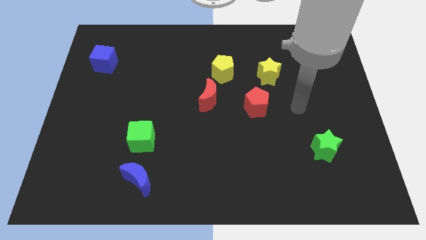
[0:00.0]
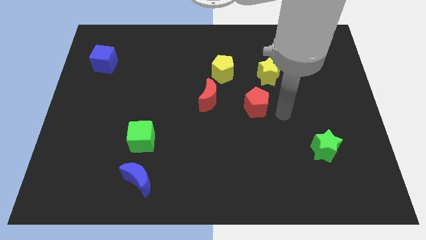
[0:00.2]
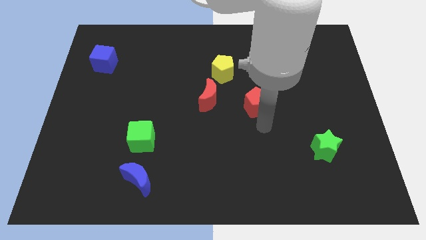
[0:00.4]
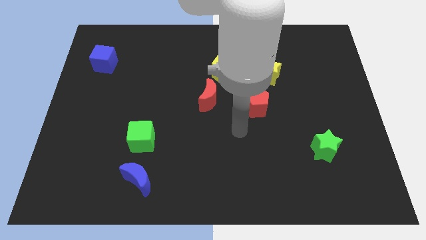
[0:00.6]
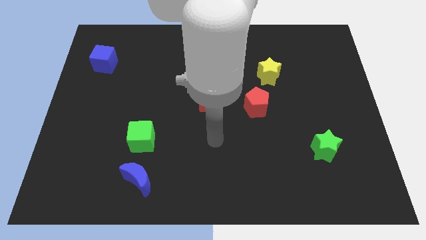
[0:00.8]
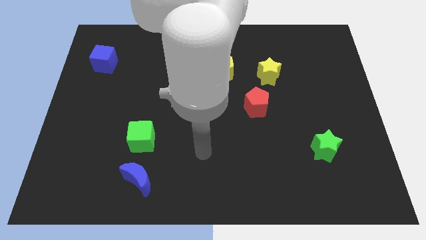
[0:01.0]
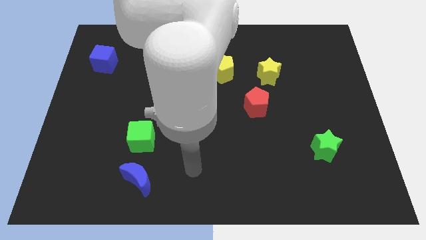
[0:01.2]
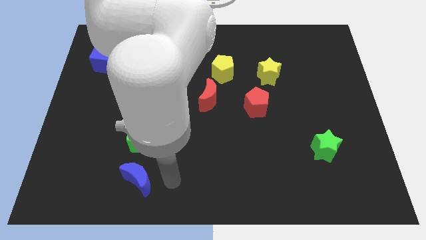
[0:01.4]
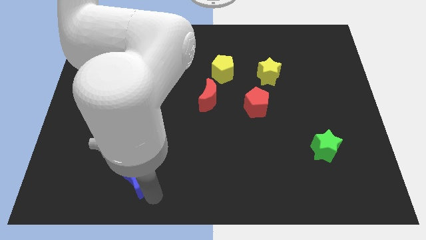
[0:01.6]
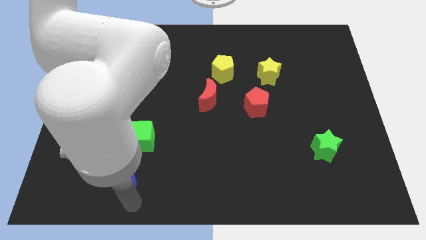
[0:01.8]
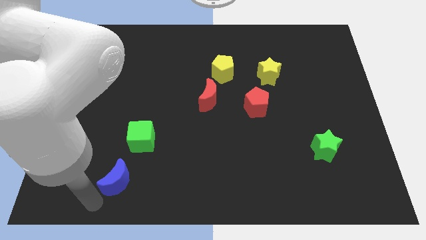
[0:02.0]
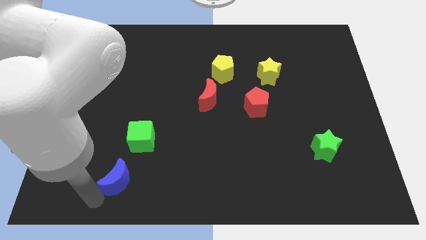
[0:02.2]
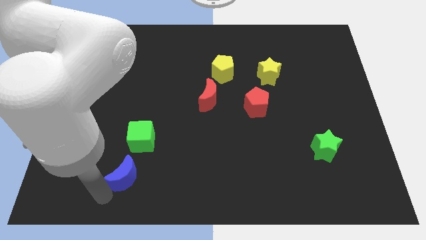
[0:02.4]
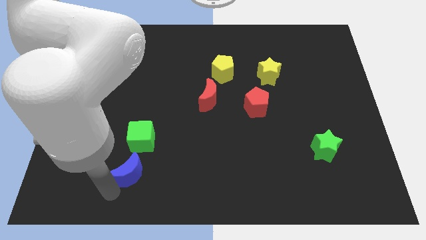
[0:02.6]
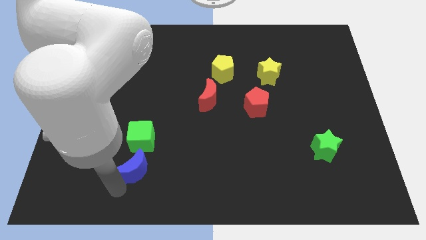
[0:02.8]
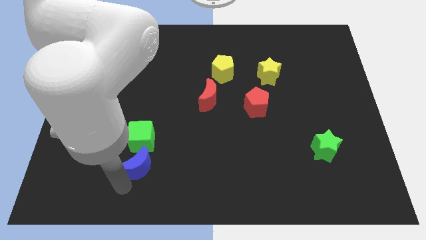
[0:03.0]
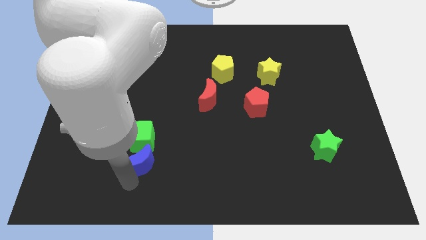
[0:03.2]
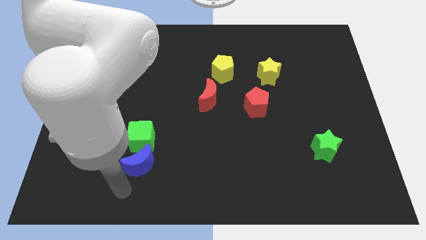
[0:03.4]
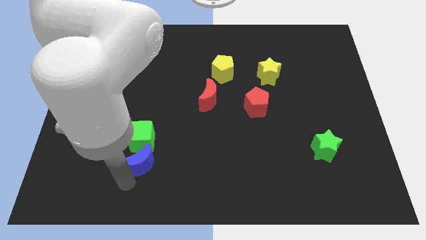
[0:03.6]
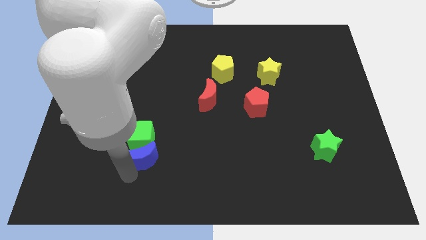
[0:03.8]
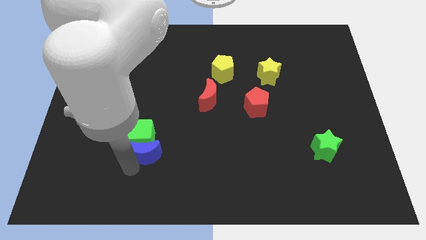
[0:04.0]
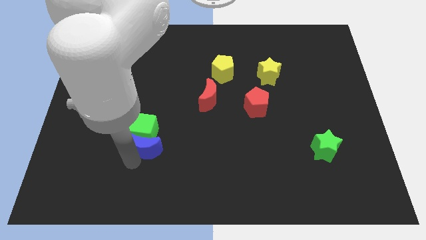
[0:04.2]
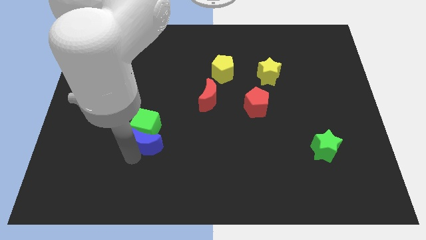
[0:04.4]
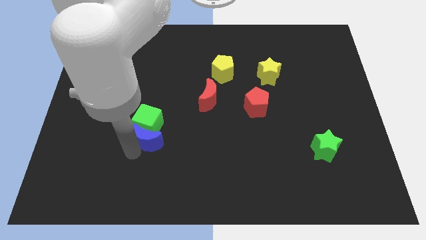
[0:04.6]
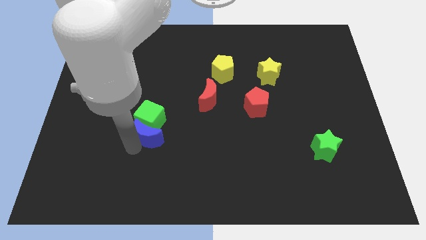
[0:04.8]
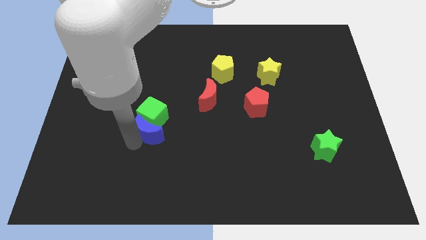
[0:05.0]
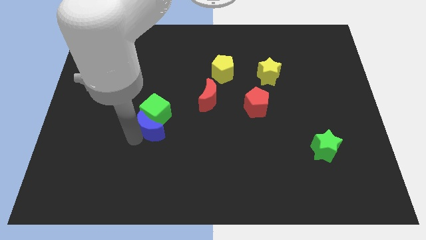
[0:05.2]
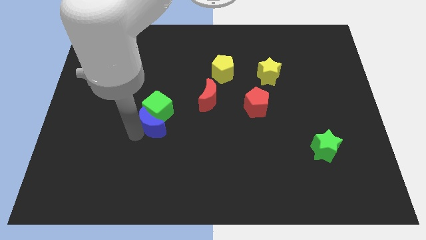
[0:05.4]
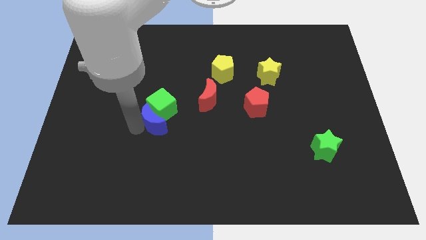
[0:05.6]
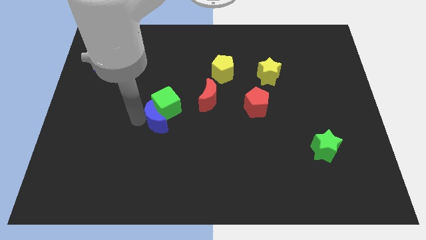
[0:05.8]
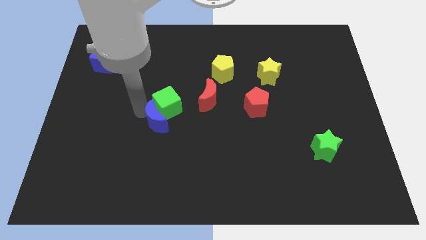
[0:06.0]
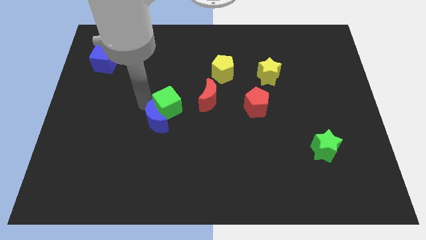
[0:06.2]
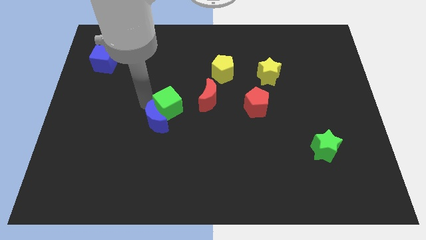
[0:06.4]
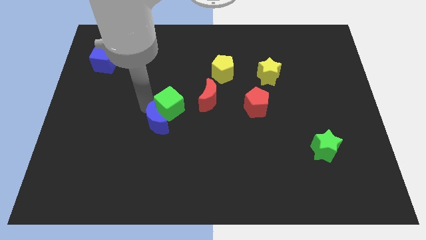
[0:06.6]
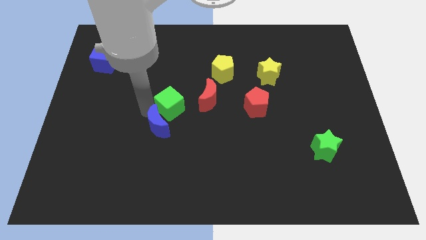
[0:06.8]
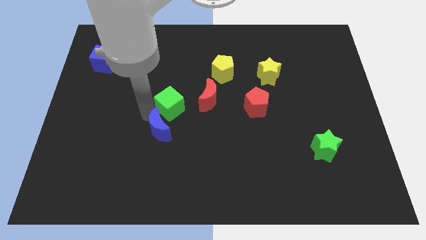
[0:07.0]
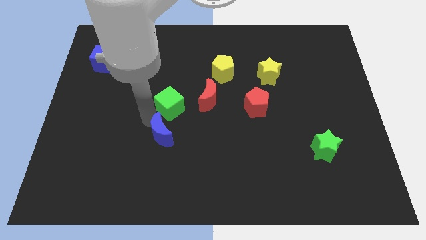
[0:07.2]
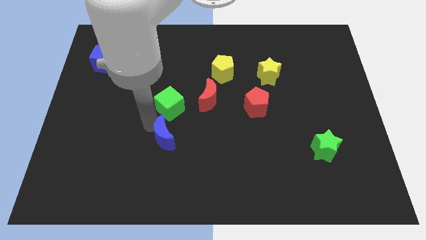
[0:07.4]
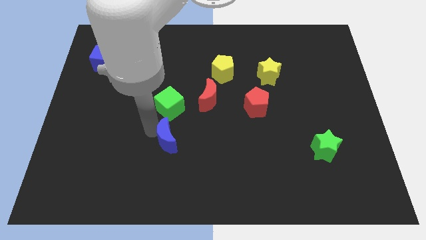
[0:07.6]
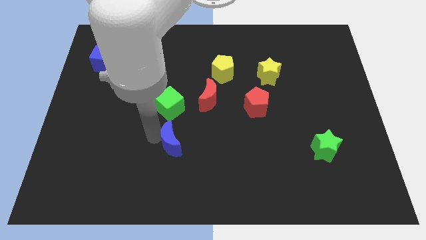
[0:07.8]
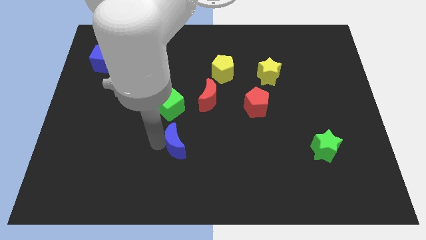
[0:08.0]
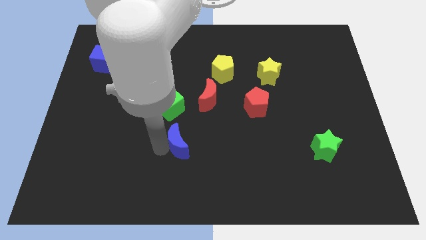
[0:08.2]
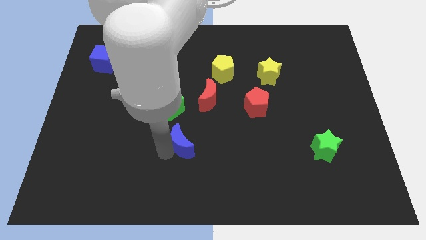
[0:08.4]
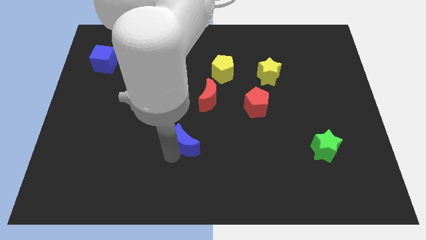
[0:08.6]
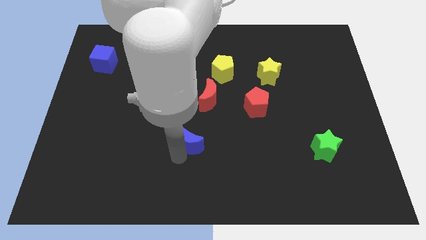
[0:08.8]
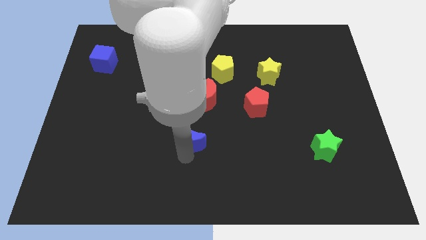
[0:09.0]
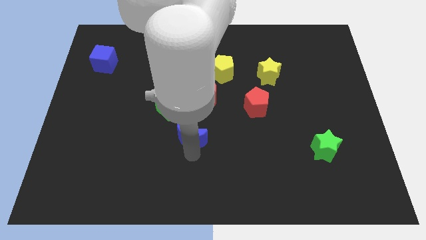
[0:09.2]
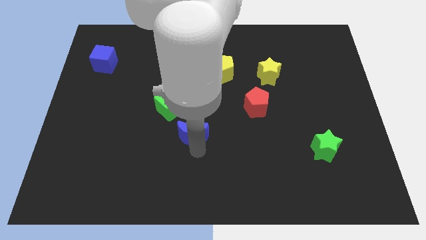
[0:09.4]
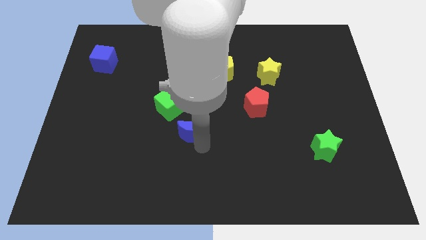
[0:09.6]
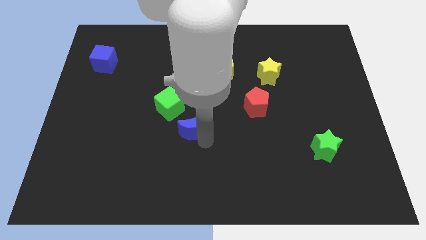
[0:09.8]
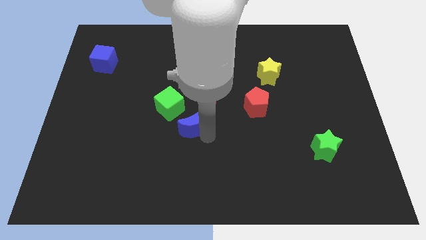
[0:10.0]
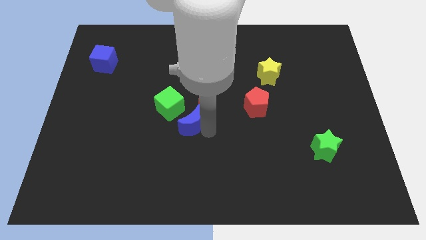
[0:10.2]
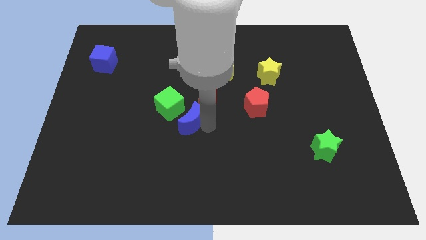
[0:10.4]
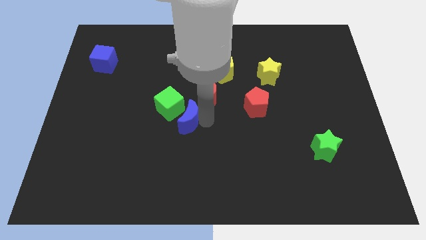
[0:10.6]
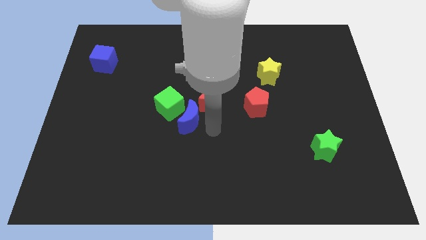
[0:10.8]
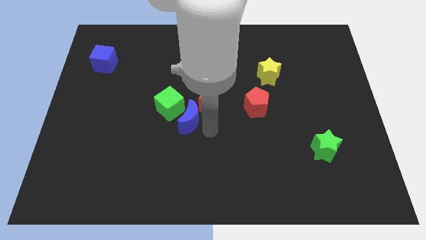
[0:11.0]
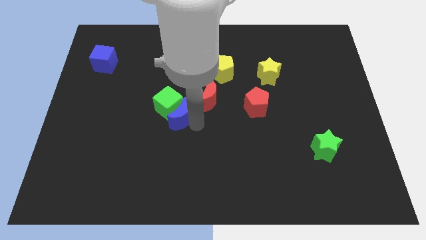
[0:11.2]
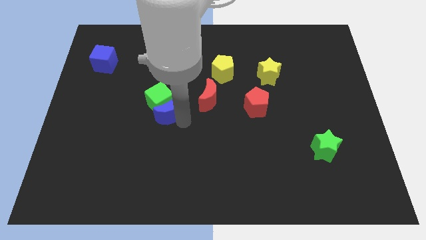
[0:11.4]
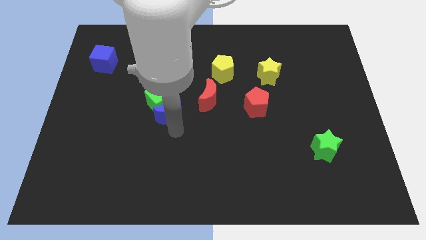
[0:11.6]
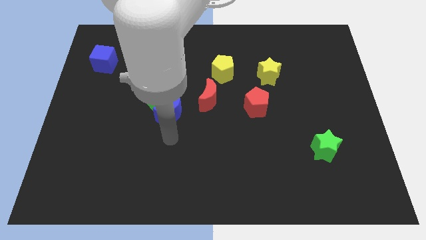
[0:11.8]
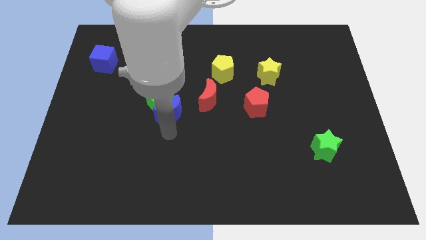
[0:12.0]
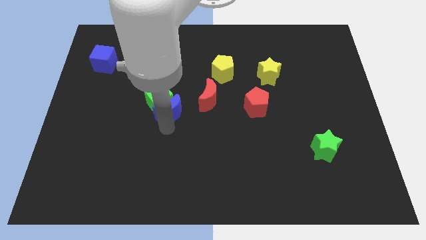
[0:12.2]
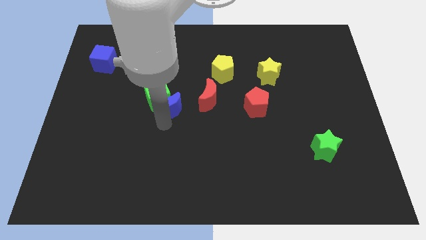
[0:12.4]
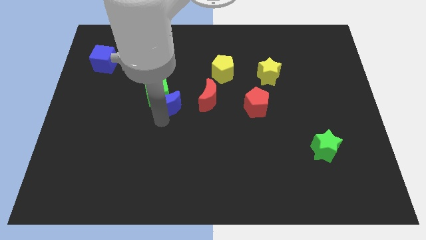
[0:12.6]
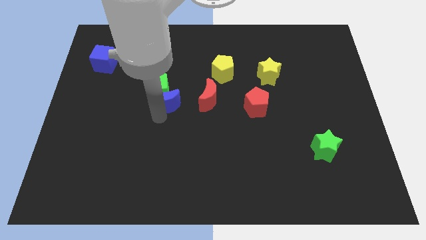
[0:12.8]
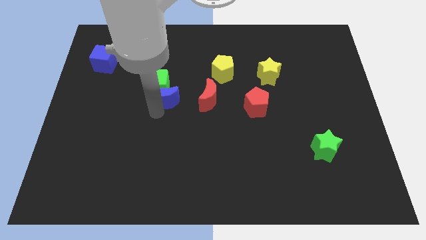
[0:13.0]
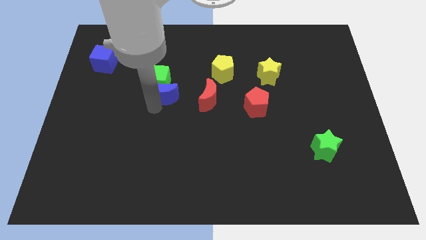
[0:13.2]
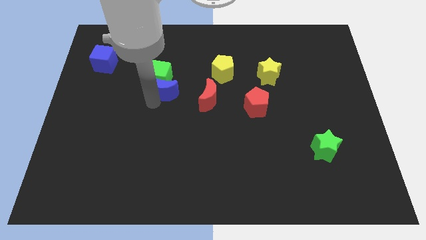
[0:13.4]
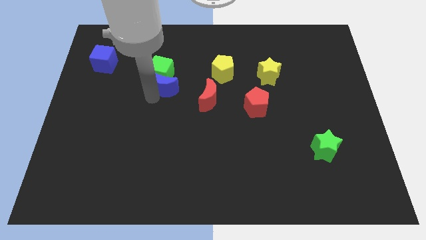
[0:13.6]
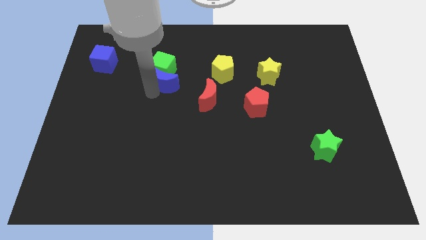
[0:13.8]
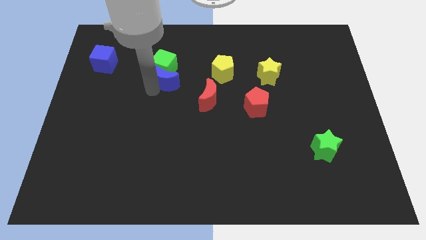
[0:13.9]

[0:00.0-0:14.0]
put the blue moon left of the yellow pentagon

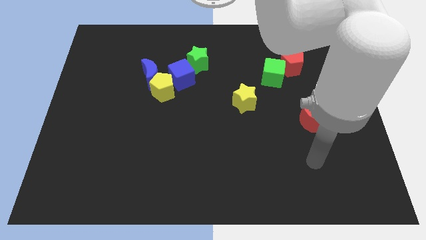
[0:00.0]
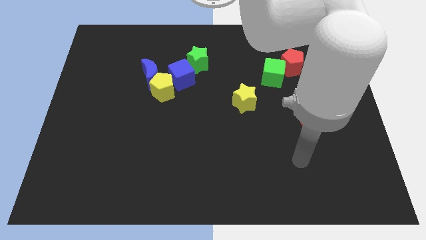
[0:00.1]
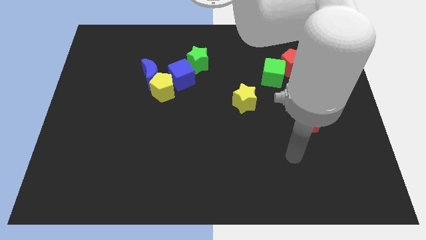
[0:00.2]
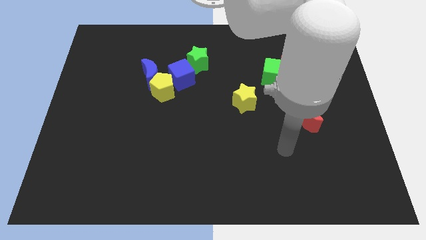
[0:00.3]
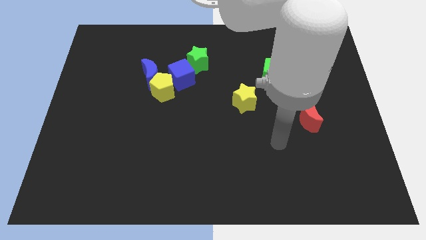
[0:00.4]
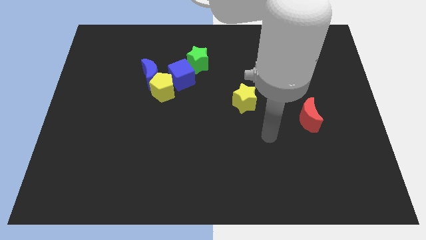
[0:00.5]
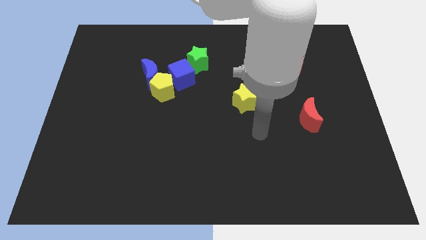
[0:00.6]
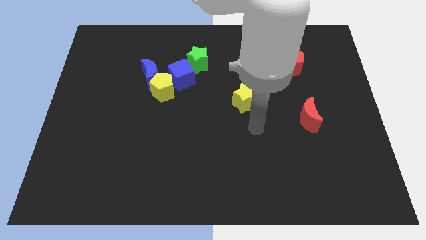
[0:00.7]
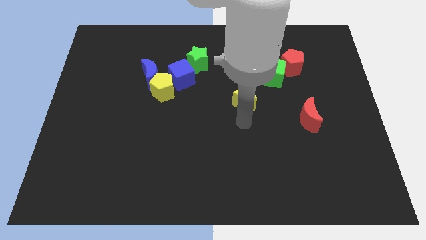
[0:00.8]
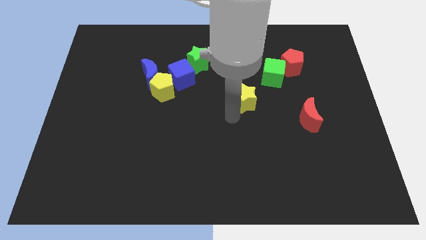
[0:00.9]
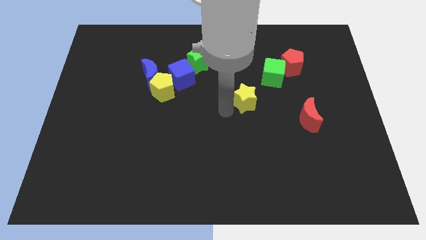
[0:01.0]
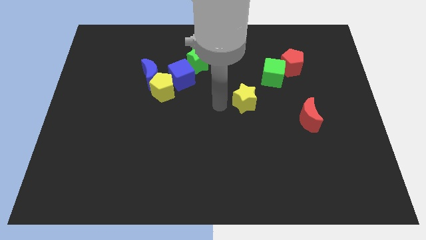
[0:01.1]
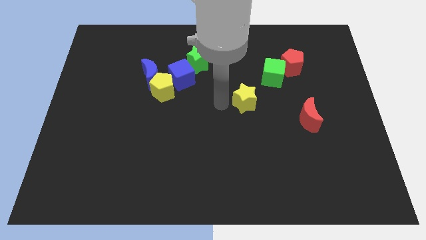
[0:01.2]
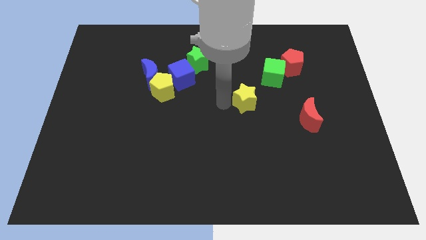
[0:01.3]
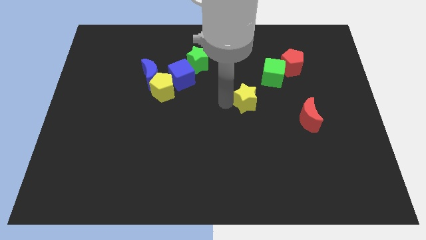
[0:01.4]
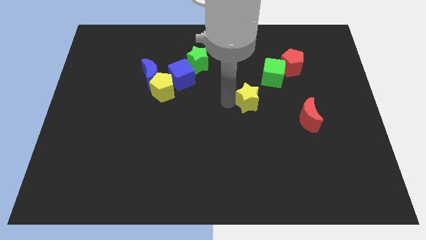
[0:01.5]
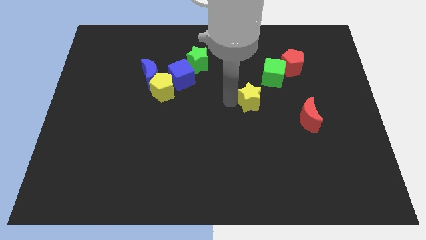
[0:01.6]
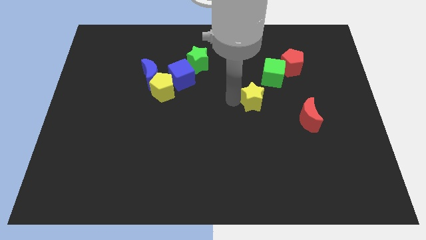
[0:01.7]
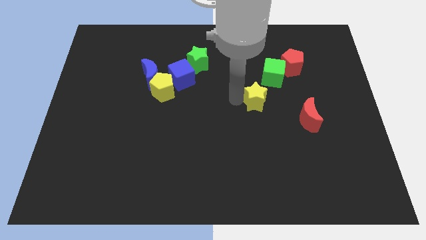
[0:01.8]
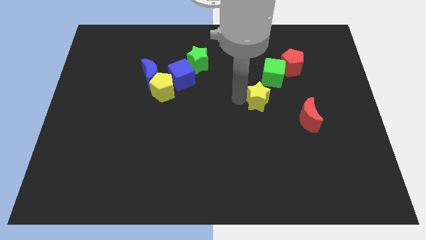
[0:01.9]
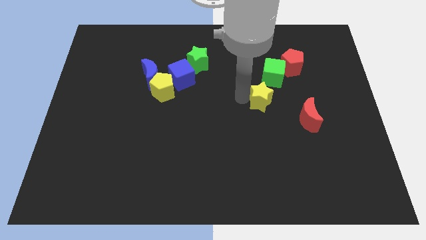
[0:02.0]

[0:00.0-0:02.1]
slide the yellow star to the top left of the red moon
